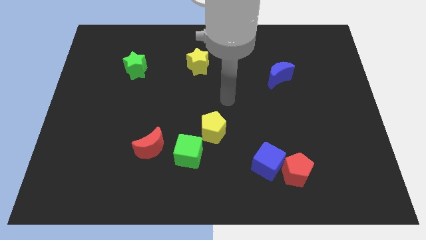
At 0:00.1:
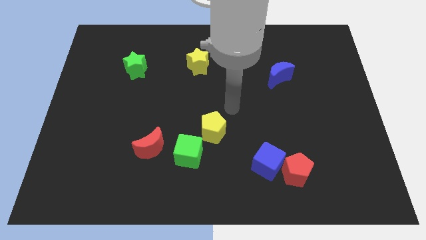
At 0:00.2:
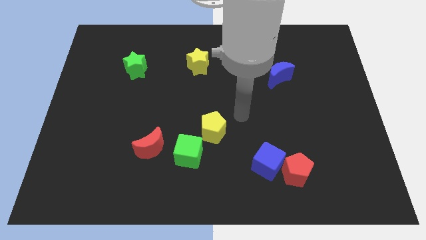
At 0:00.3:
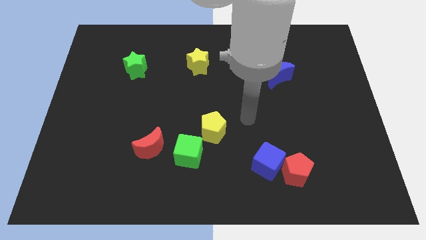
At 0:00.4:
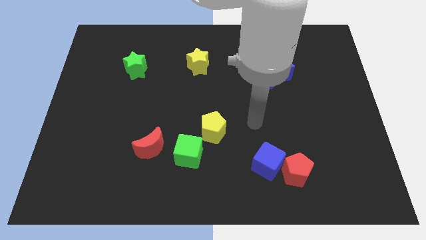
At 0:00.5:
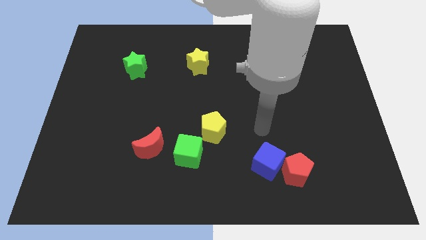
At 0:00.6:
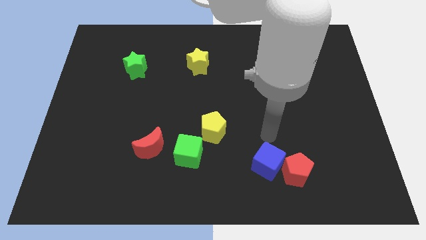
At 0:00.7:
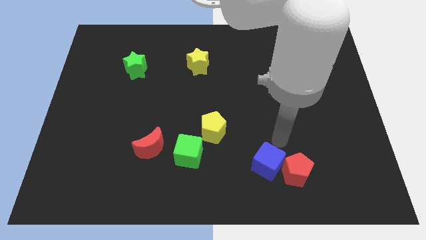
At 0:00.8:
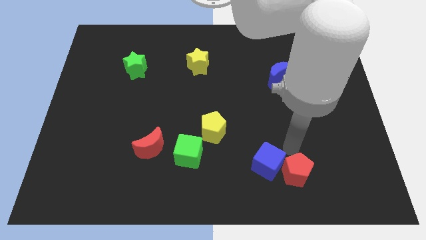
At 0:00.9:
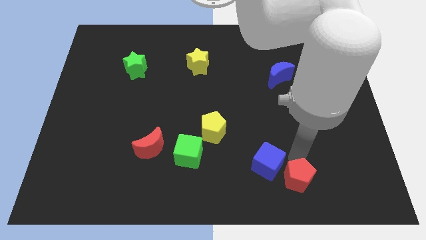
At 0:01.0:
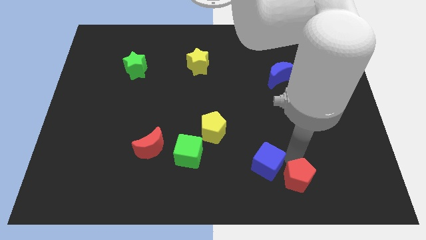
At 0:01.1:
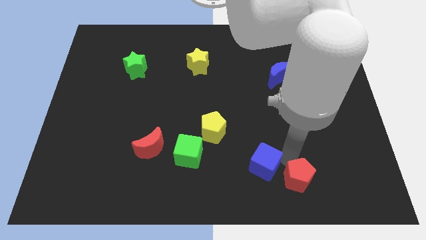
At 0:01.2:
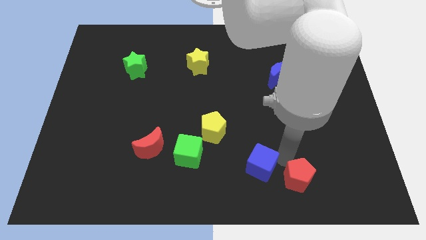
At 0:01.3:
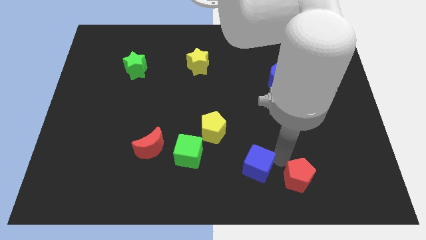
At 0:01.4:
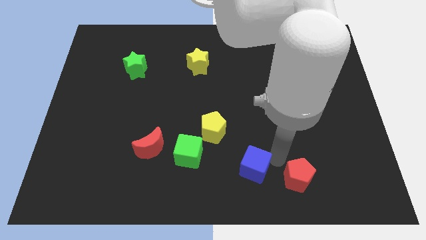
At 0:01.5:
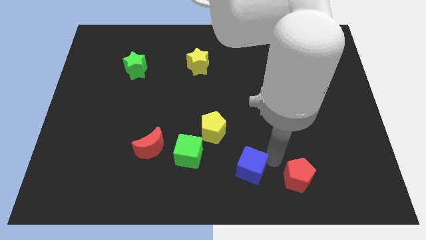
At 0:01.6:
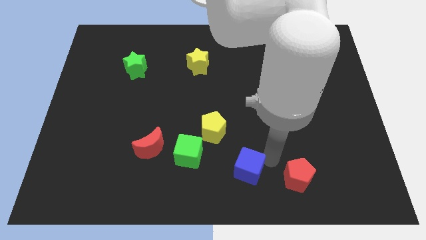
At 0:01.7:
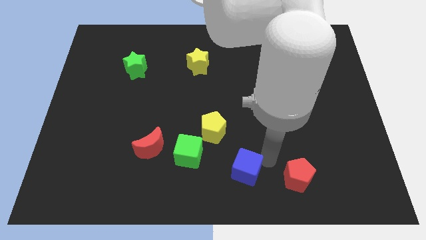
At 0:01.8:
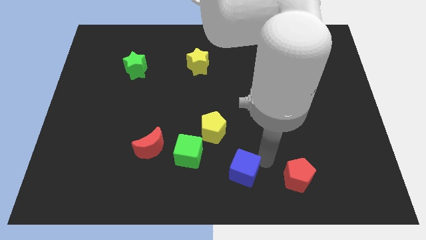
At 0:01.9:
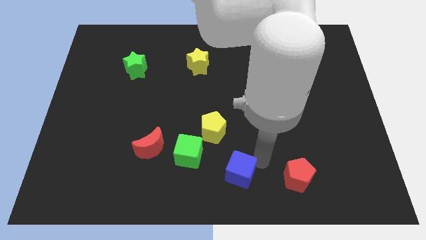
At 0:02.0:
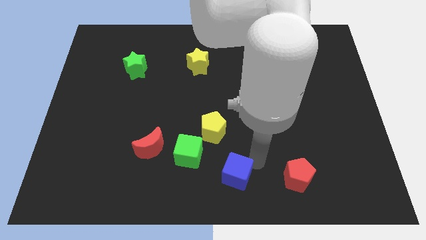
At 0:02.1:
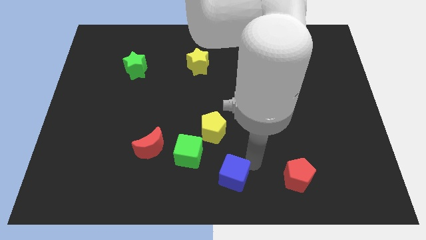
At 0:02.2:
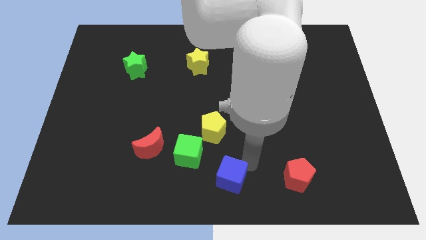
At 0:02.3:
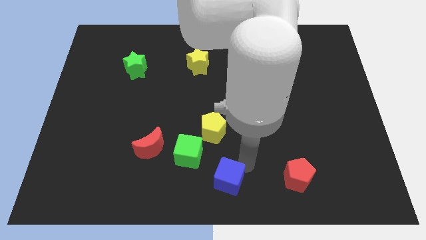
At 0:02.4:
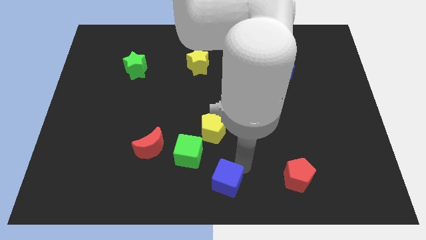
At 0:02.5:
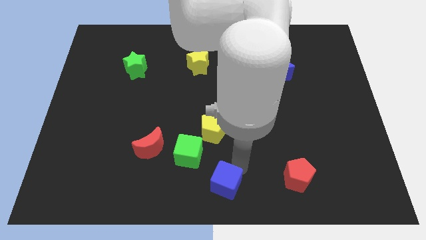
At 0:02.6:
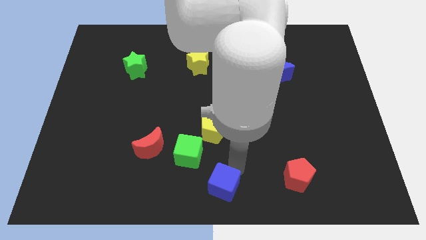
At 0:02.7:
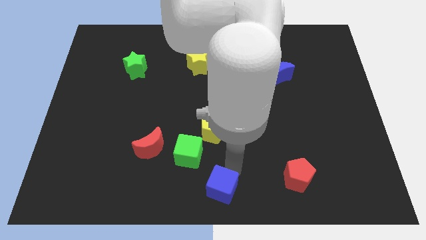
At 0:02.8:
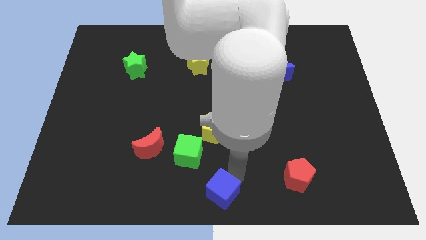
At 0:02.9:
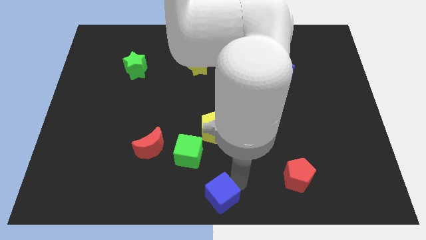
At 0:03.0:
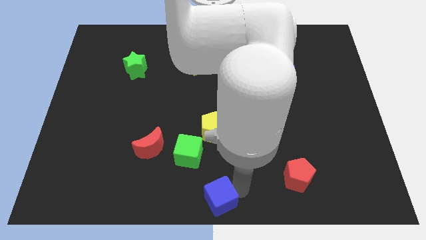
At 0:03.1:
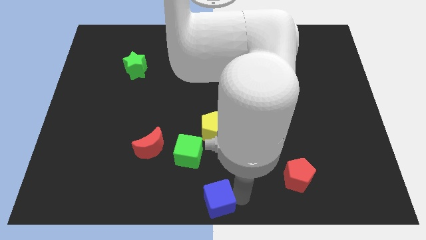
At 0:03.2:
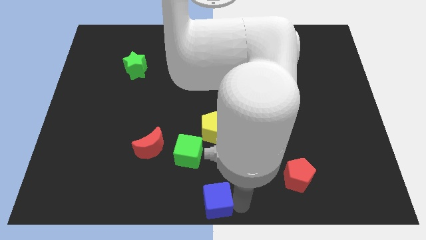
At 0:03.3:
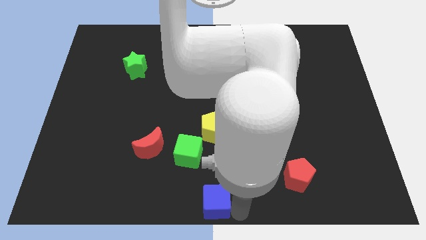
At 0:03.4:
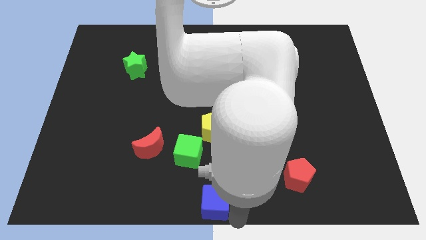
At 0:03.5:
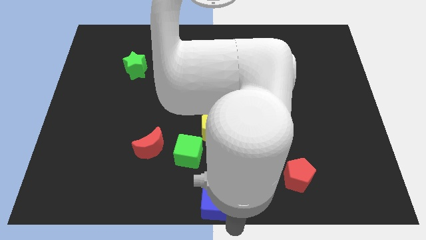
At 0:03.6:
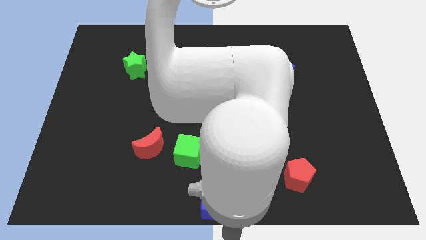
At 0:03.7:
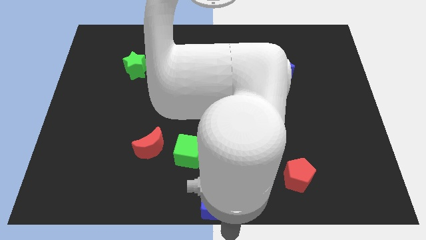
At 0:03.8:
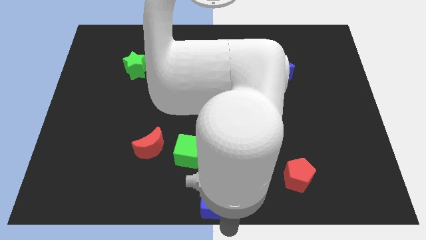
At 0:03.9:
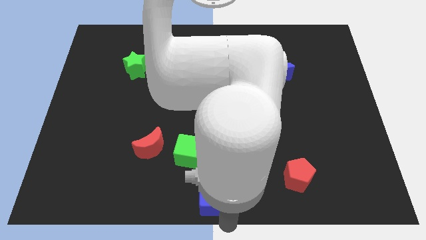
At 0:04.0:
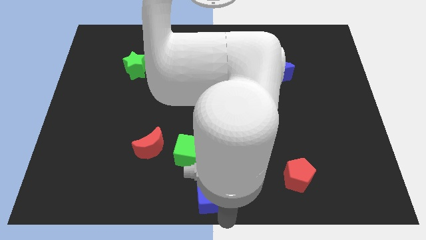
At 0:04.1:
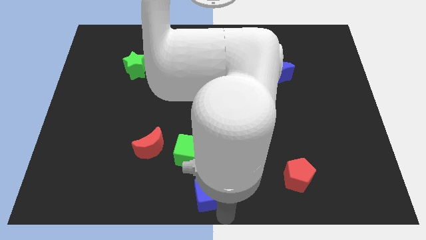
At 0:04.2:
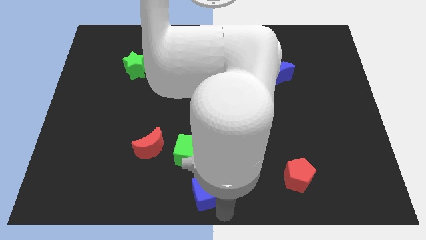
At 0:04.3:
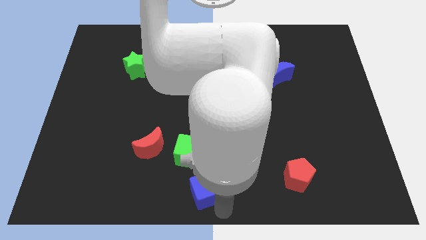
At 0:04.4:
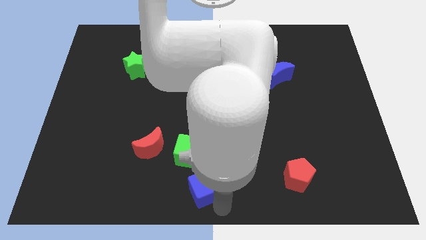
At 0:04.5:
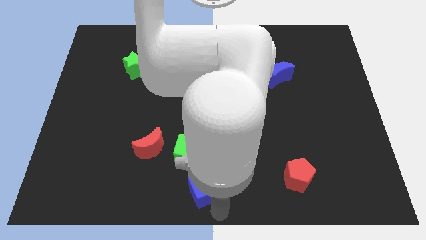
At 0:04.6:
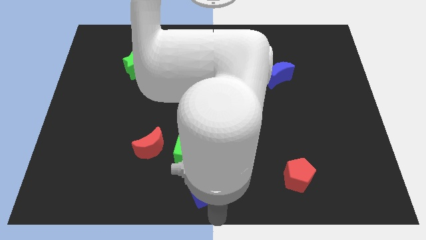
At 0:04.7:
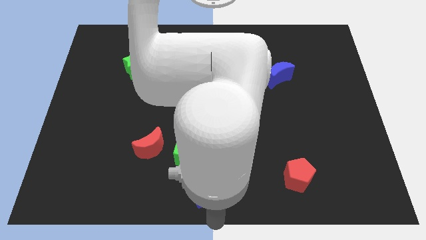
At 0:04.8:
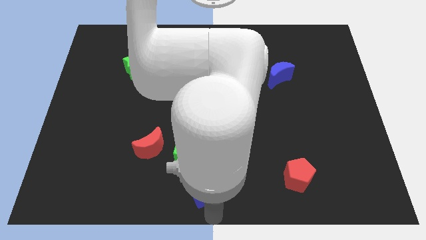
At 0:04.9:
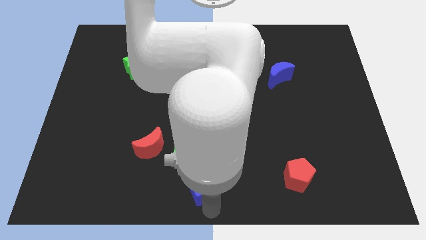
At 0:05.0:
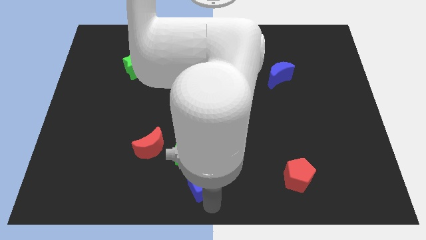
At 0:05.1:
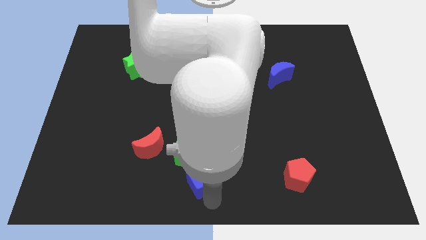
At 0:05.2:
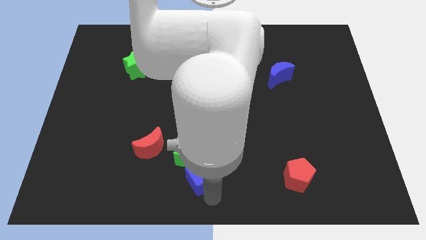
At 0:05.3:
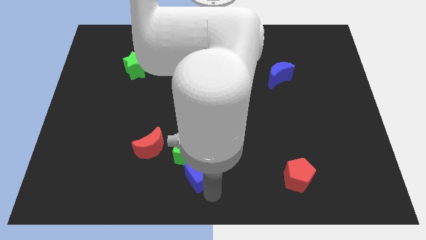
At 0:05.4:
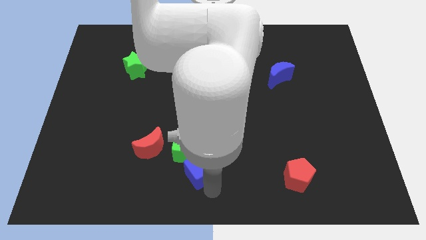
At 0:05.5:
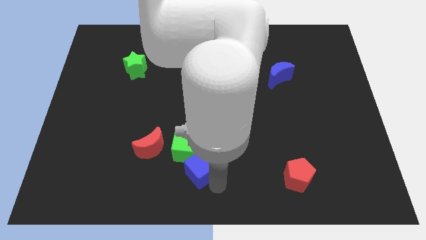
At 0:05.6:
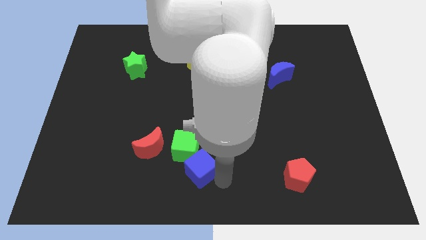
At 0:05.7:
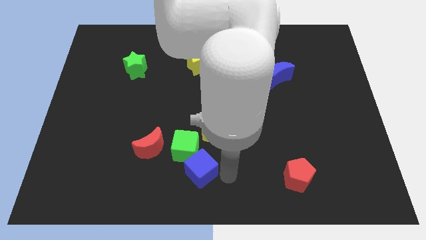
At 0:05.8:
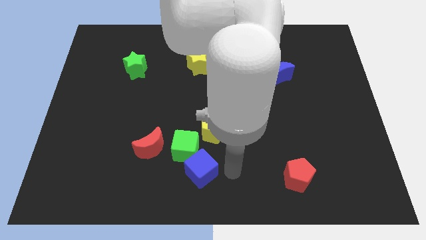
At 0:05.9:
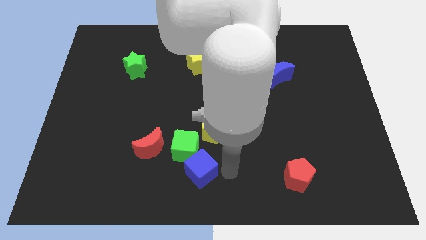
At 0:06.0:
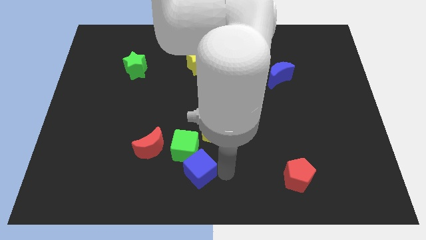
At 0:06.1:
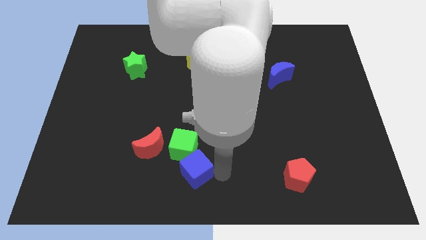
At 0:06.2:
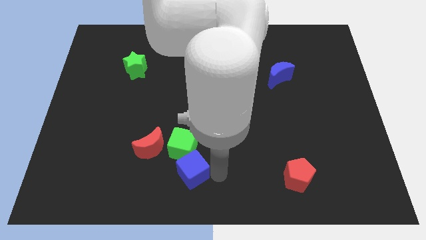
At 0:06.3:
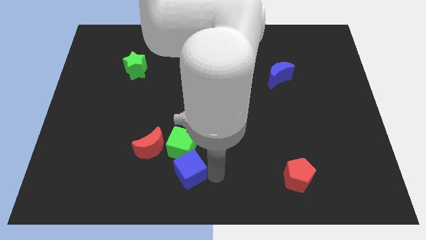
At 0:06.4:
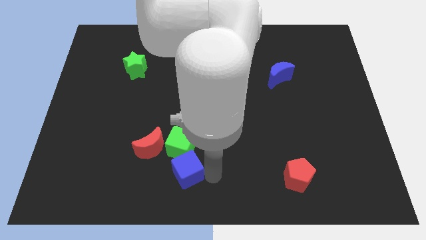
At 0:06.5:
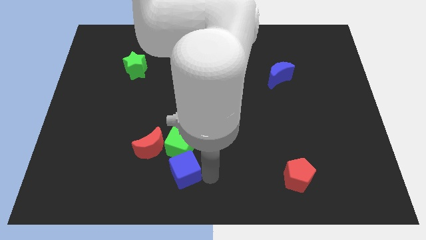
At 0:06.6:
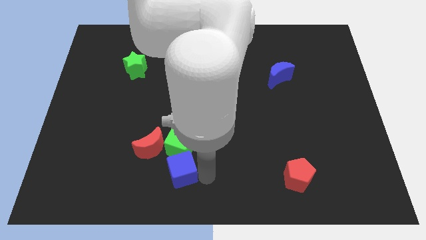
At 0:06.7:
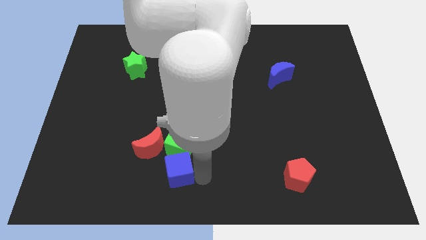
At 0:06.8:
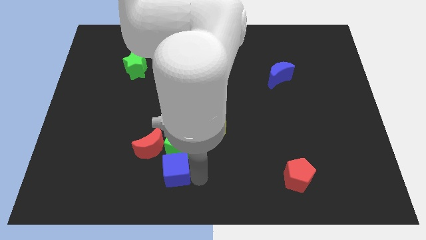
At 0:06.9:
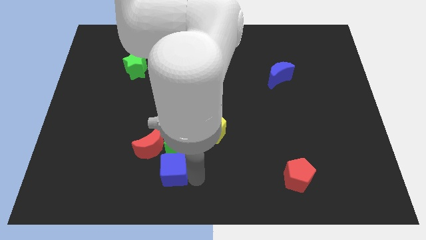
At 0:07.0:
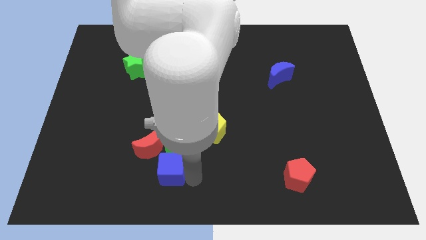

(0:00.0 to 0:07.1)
slide the blue cube to the left

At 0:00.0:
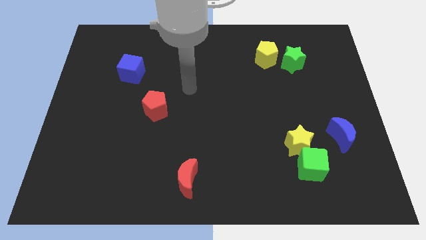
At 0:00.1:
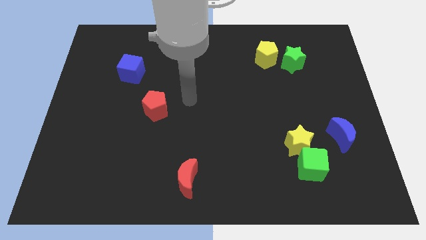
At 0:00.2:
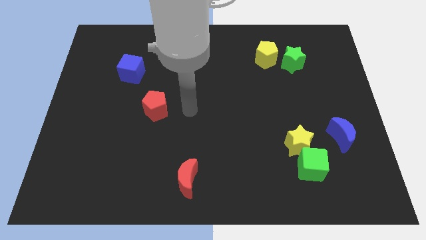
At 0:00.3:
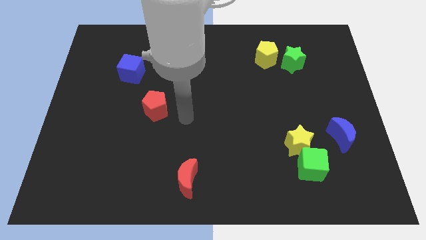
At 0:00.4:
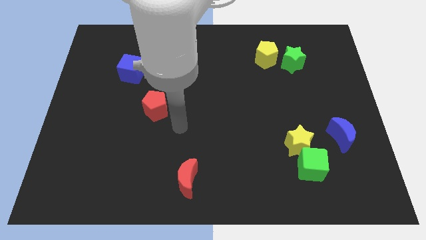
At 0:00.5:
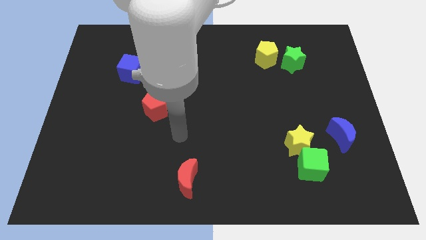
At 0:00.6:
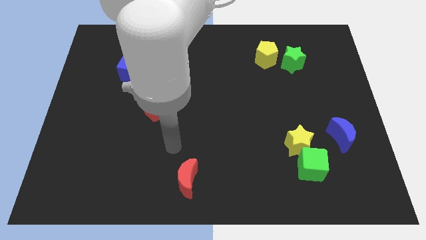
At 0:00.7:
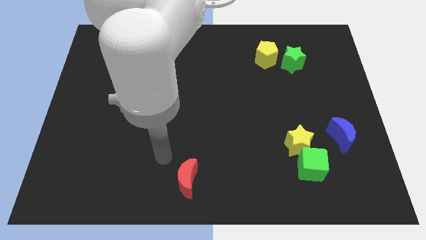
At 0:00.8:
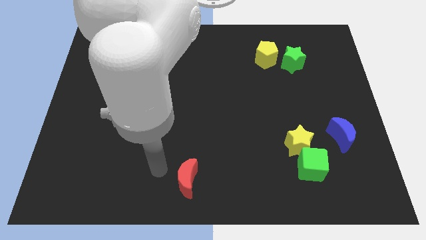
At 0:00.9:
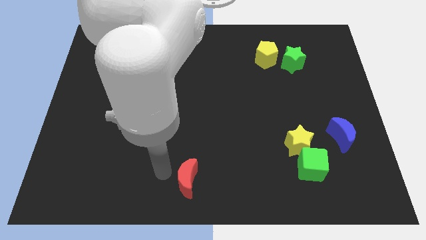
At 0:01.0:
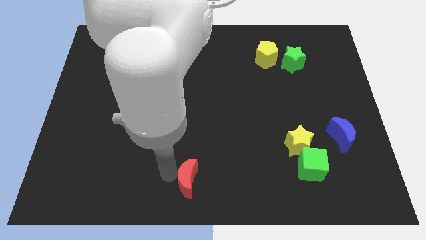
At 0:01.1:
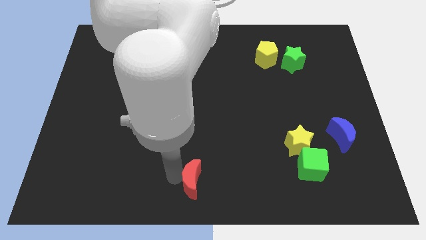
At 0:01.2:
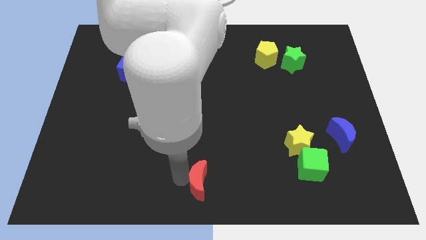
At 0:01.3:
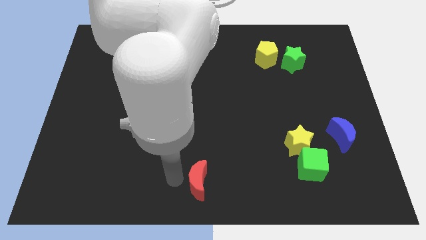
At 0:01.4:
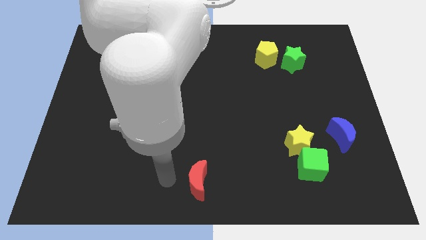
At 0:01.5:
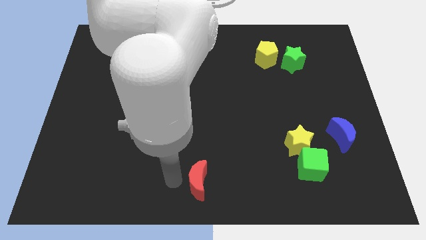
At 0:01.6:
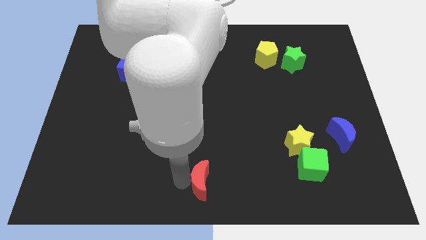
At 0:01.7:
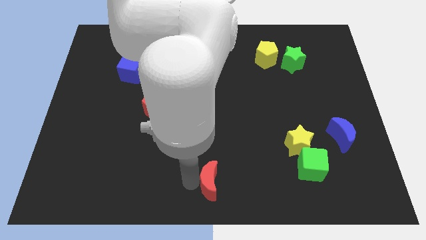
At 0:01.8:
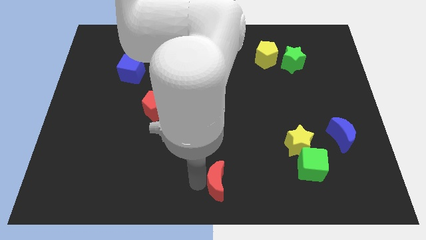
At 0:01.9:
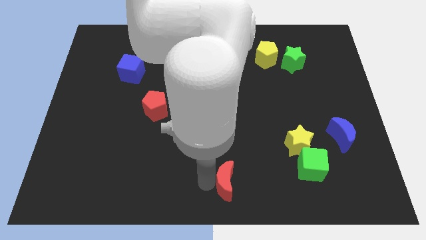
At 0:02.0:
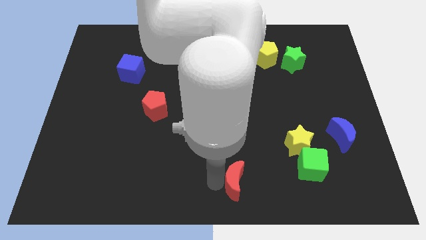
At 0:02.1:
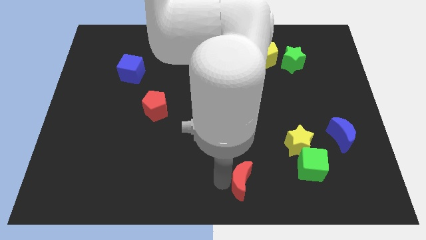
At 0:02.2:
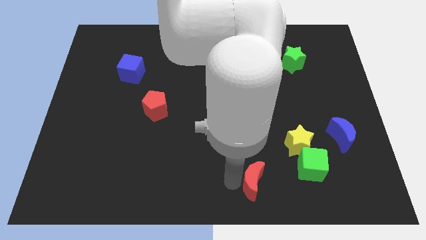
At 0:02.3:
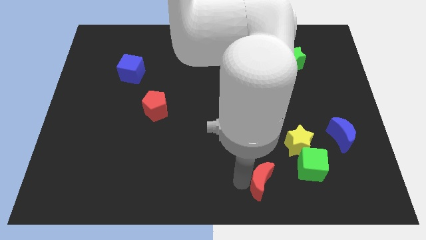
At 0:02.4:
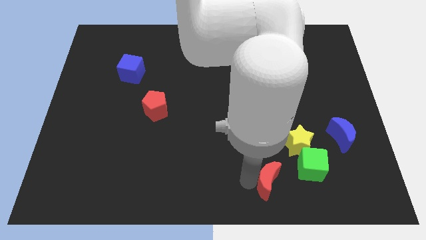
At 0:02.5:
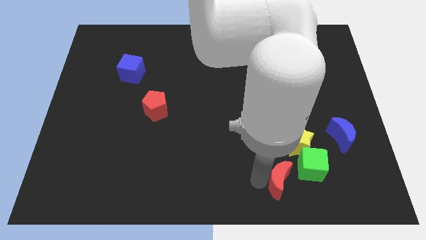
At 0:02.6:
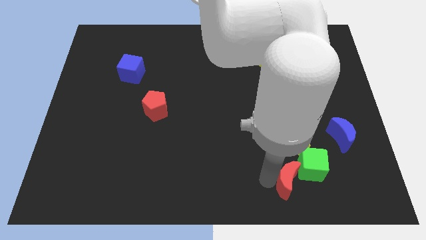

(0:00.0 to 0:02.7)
push the red moon to the right
